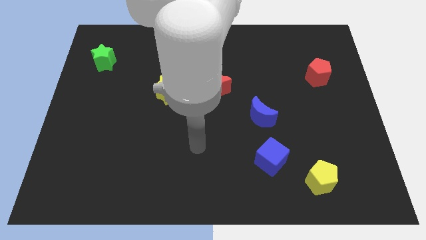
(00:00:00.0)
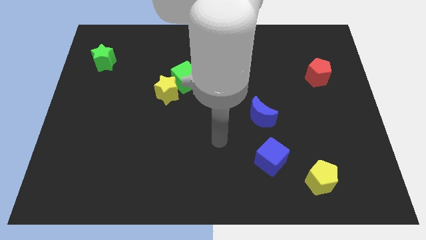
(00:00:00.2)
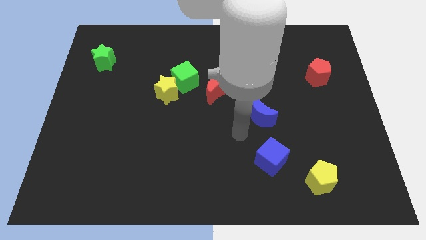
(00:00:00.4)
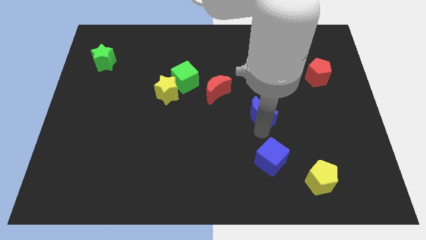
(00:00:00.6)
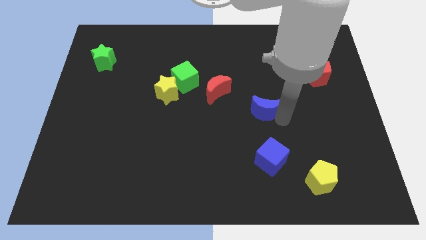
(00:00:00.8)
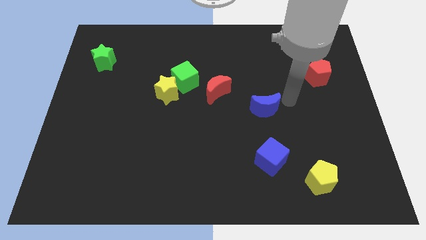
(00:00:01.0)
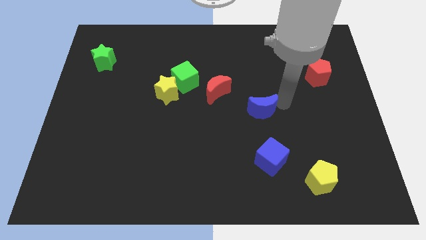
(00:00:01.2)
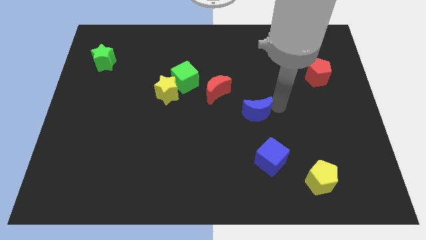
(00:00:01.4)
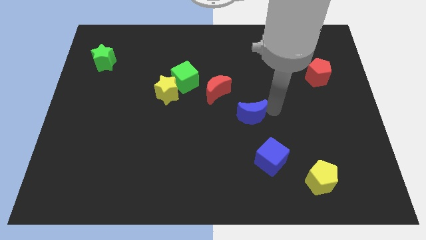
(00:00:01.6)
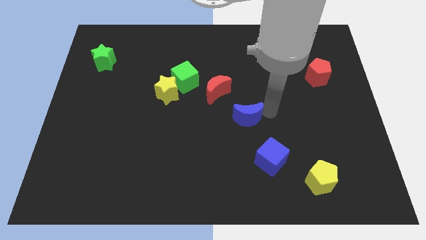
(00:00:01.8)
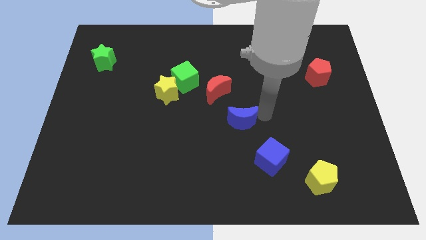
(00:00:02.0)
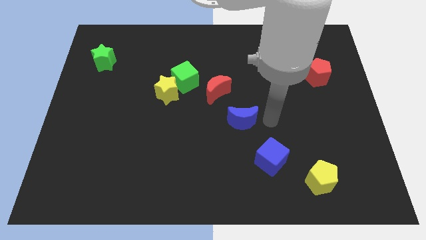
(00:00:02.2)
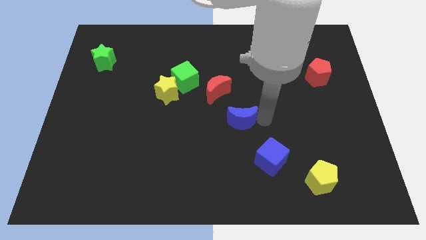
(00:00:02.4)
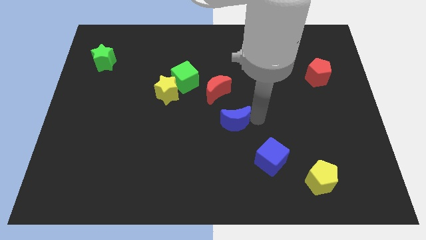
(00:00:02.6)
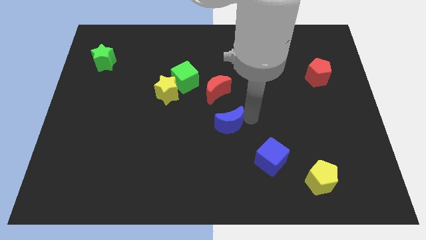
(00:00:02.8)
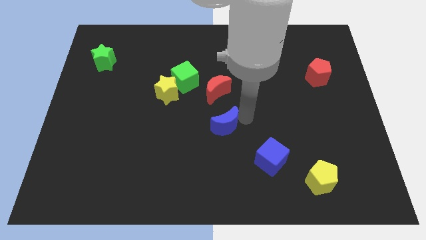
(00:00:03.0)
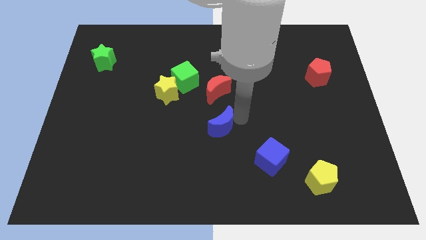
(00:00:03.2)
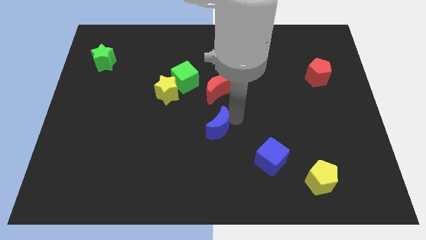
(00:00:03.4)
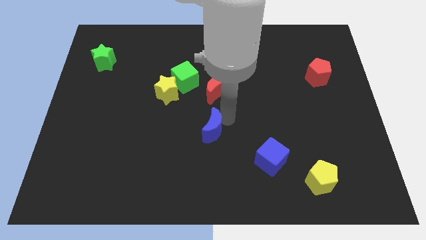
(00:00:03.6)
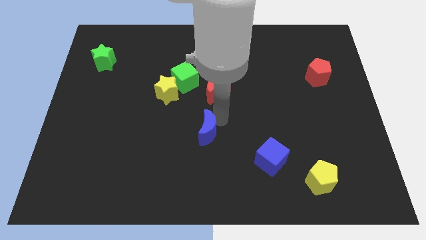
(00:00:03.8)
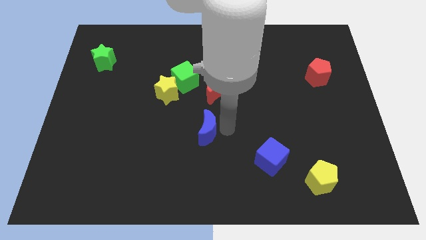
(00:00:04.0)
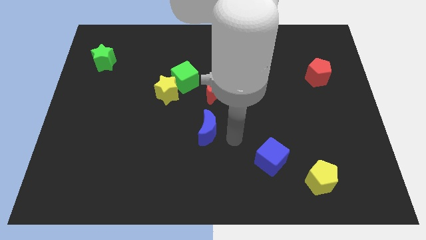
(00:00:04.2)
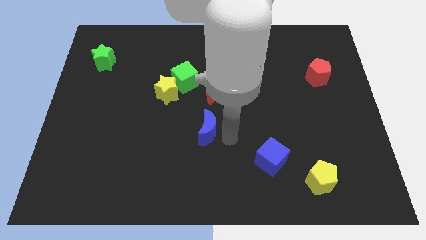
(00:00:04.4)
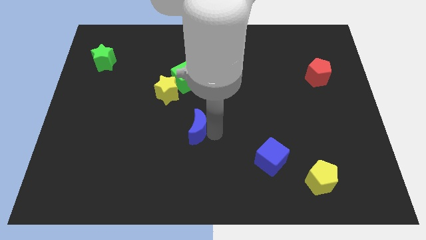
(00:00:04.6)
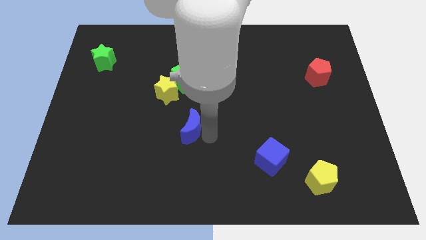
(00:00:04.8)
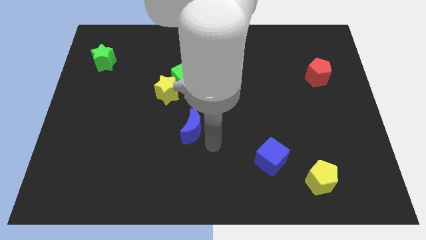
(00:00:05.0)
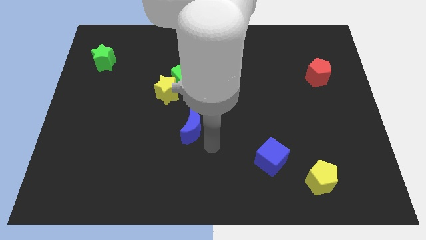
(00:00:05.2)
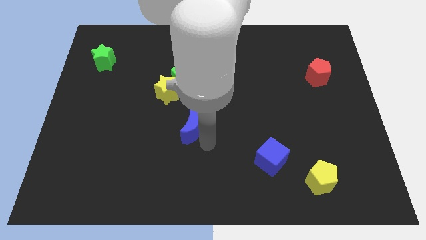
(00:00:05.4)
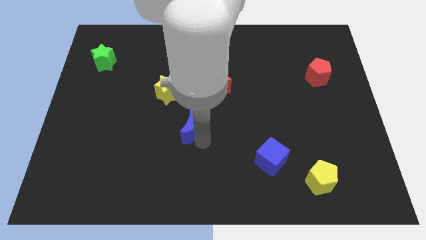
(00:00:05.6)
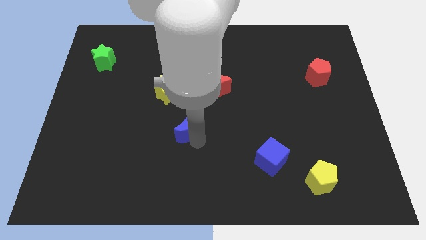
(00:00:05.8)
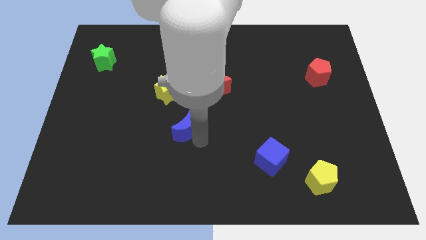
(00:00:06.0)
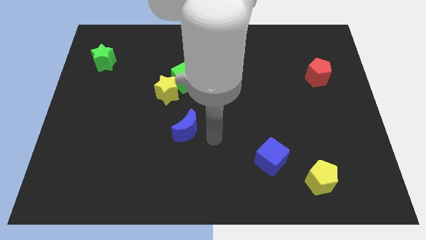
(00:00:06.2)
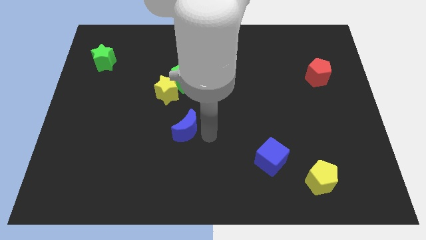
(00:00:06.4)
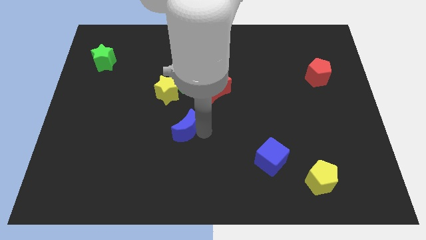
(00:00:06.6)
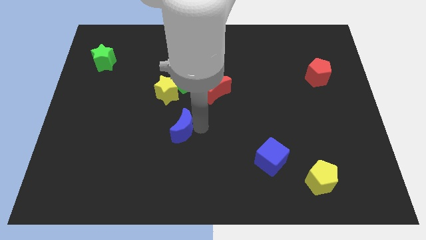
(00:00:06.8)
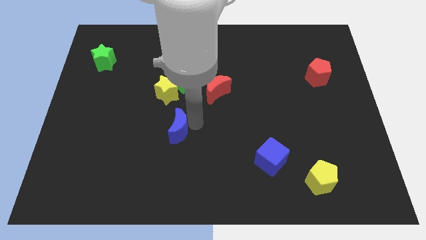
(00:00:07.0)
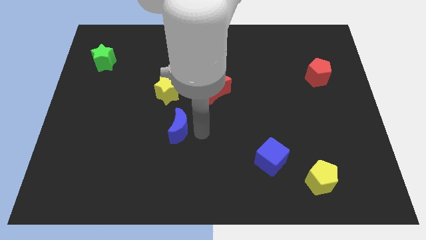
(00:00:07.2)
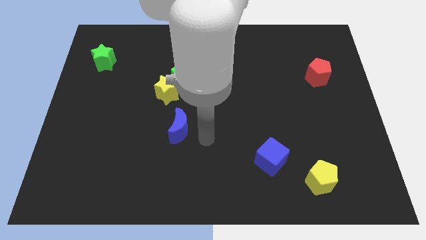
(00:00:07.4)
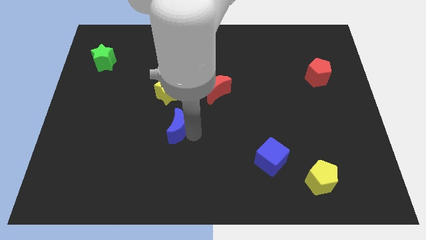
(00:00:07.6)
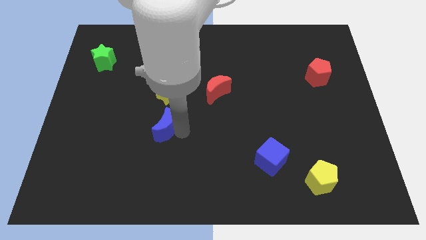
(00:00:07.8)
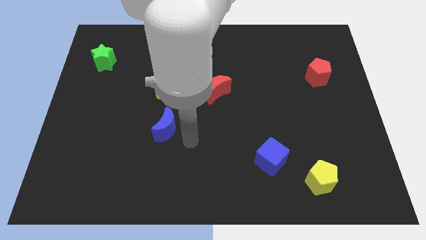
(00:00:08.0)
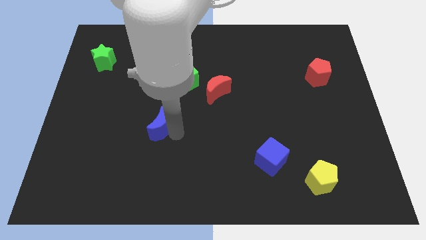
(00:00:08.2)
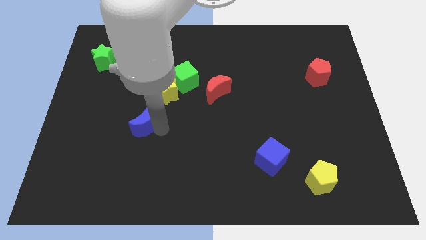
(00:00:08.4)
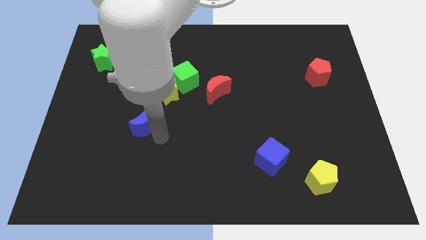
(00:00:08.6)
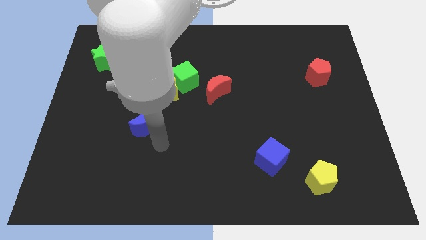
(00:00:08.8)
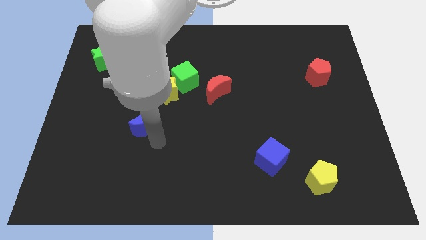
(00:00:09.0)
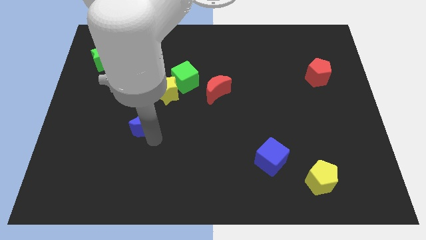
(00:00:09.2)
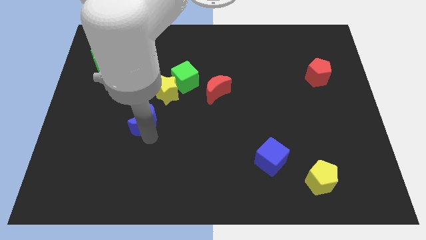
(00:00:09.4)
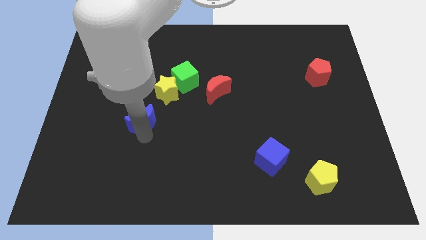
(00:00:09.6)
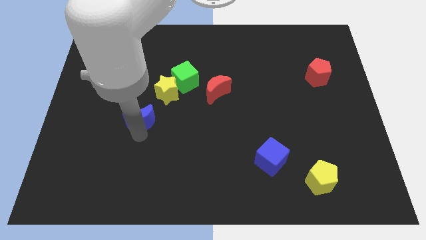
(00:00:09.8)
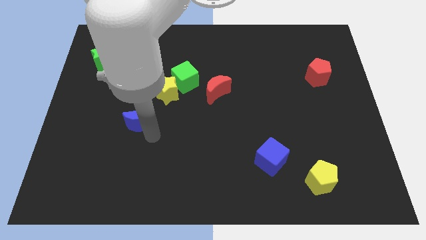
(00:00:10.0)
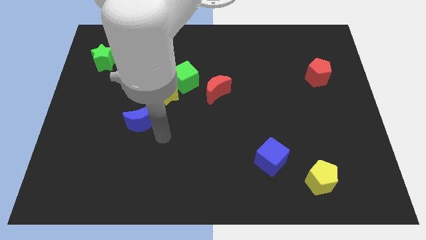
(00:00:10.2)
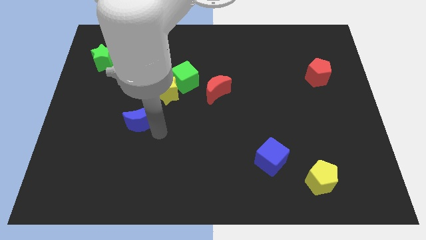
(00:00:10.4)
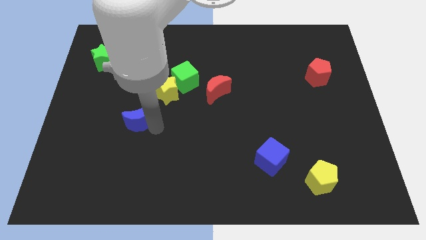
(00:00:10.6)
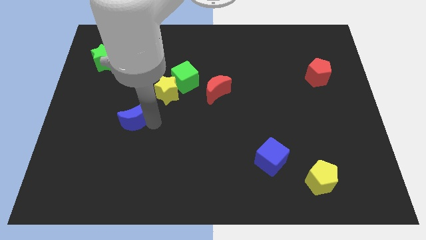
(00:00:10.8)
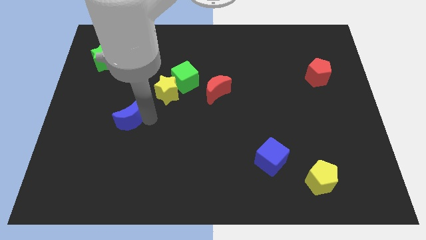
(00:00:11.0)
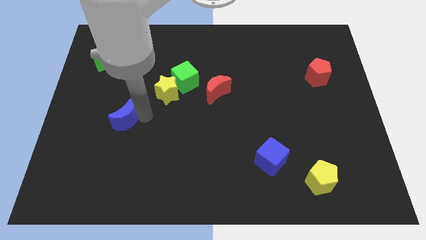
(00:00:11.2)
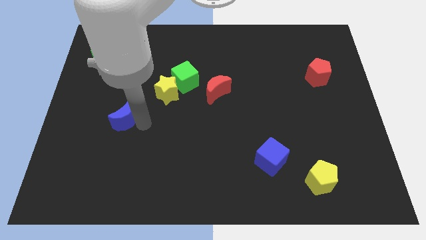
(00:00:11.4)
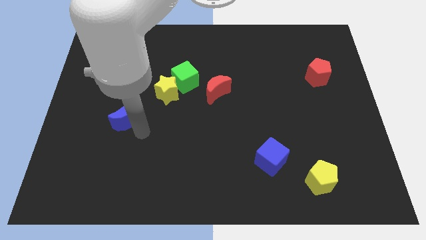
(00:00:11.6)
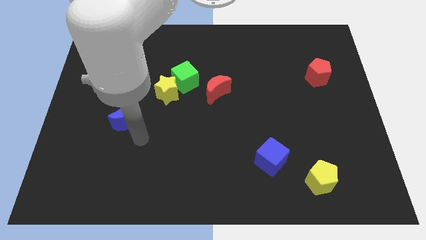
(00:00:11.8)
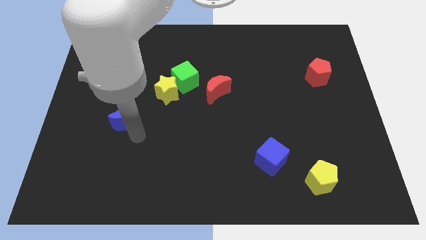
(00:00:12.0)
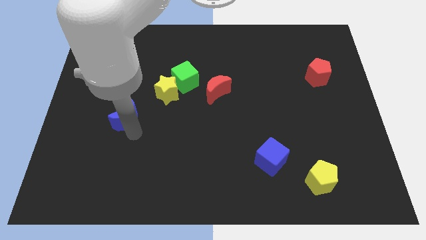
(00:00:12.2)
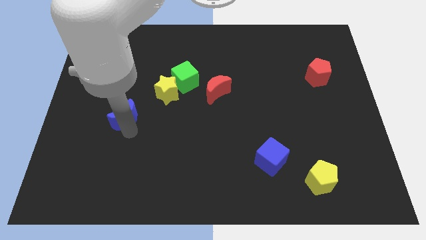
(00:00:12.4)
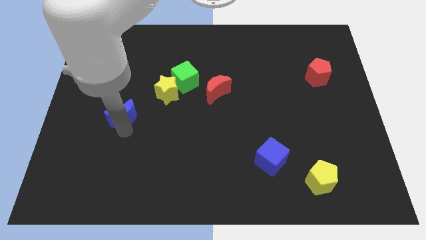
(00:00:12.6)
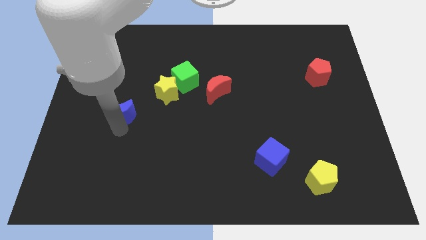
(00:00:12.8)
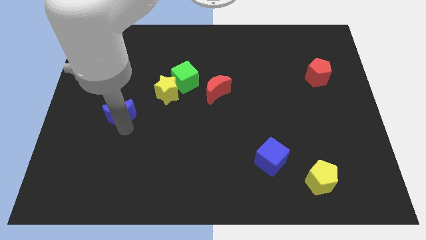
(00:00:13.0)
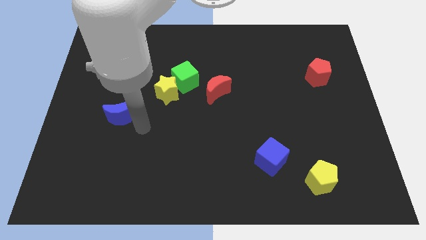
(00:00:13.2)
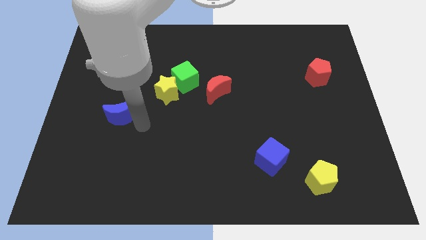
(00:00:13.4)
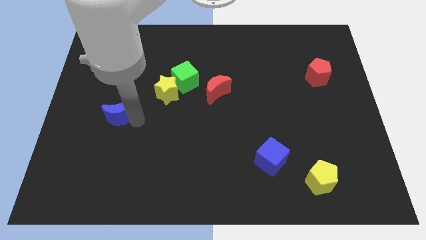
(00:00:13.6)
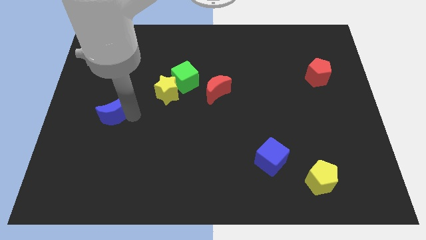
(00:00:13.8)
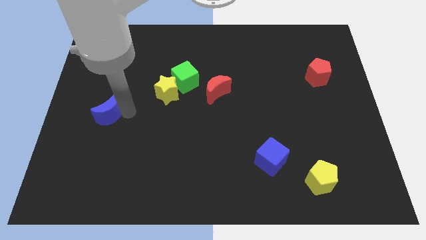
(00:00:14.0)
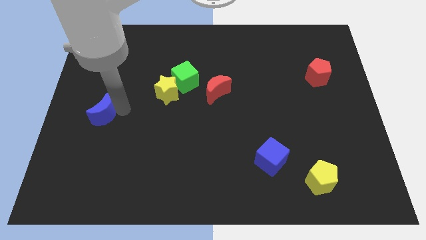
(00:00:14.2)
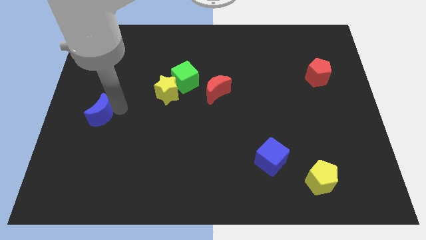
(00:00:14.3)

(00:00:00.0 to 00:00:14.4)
push the blue moon to the left side of the board

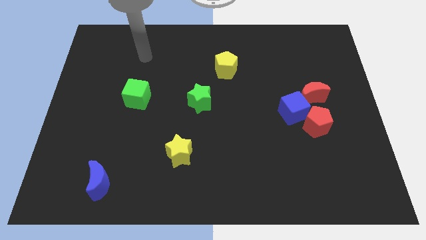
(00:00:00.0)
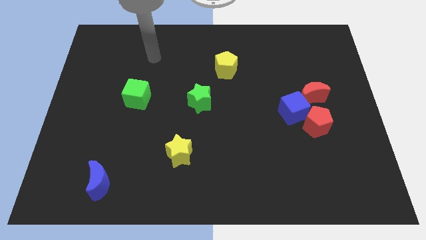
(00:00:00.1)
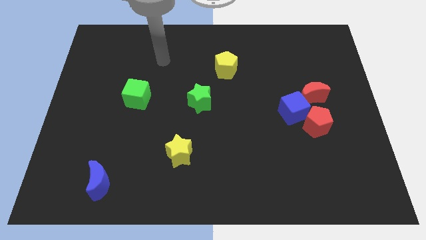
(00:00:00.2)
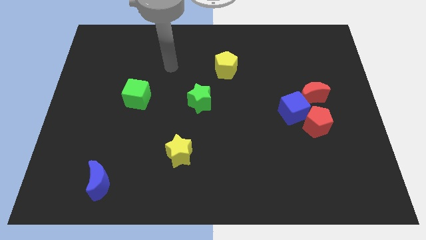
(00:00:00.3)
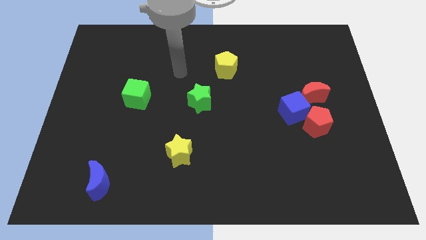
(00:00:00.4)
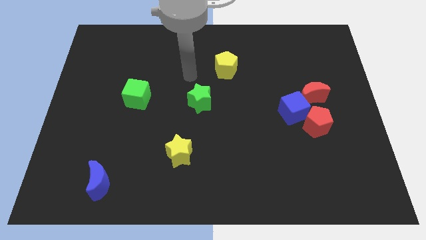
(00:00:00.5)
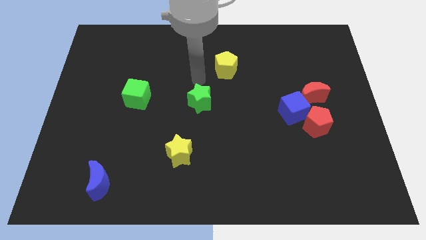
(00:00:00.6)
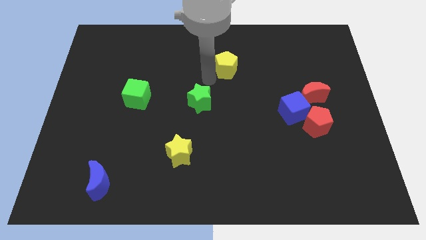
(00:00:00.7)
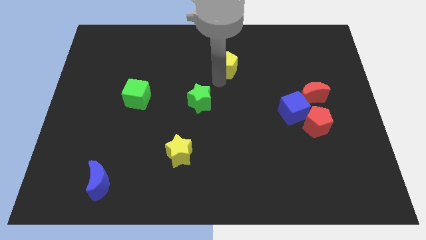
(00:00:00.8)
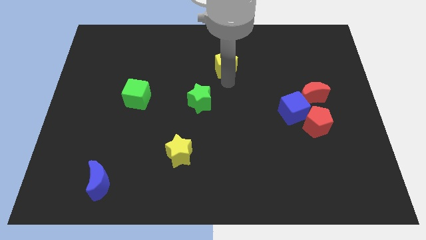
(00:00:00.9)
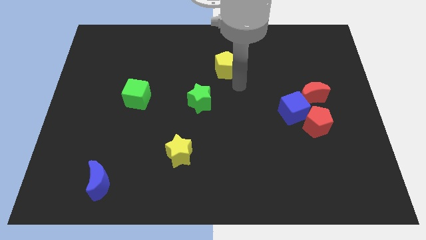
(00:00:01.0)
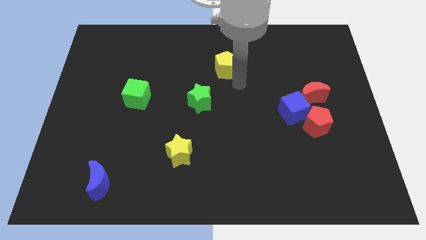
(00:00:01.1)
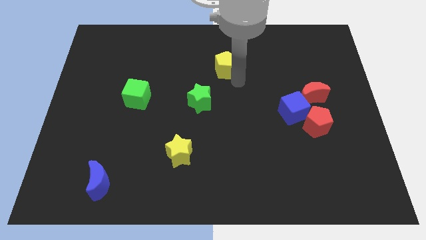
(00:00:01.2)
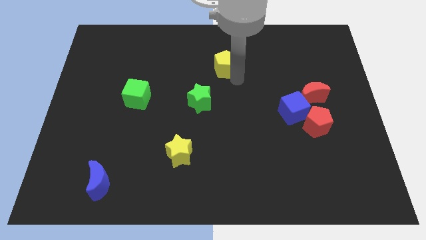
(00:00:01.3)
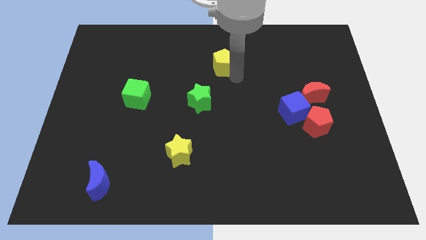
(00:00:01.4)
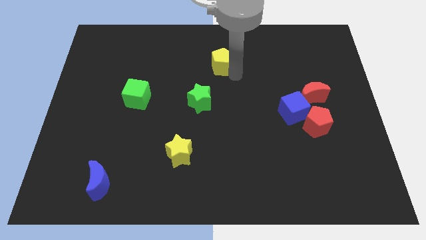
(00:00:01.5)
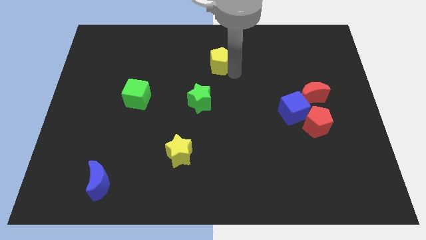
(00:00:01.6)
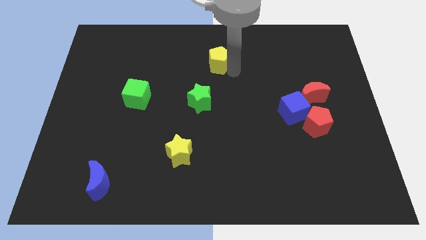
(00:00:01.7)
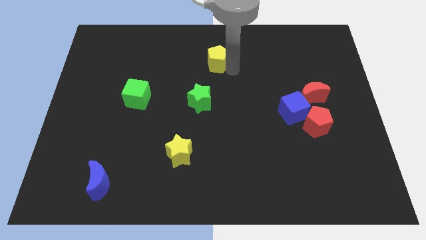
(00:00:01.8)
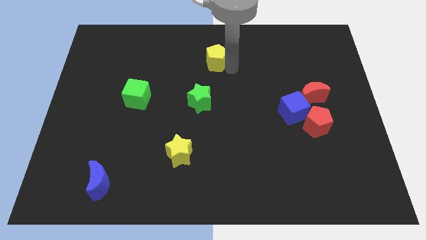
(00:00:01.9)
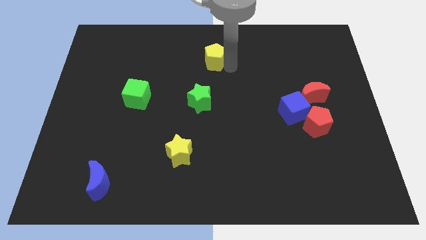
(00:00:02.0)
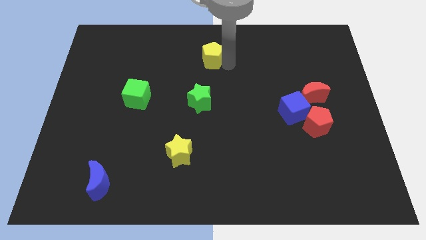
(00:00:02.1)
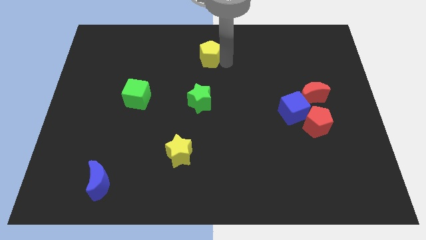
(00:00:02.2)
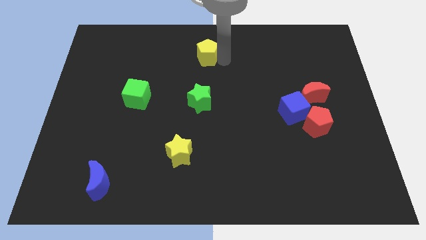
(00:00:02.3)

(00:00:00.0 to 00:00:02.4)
put the yellow pentagon to the towards your base
